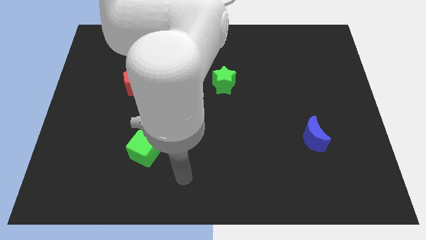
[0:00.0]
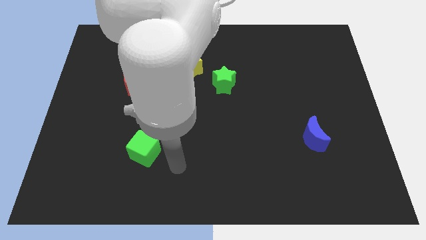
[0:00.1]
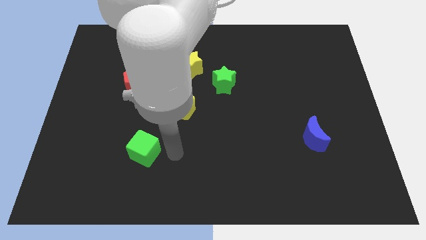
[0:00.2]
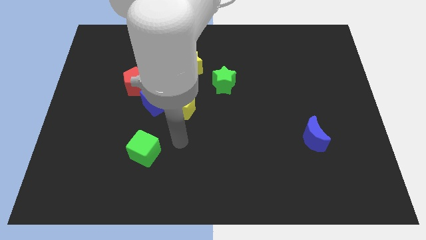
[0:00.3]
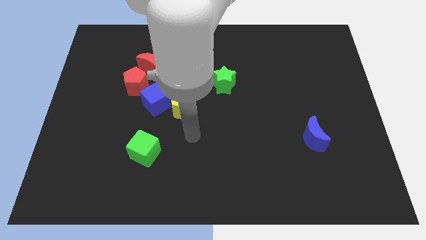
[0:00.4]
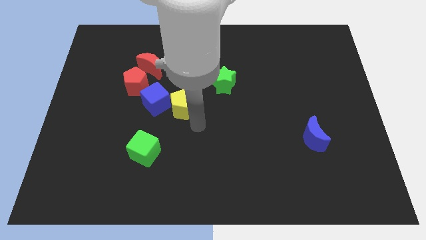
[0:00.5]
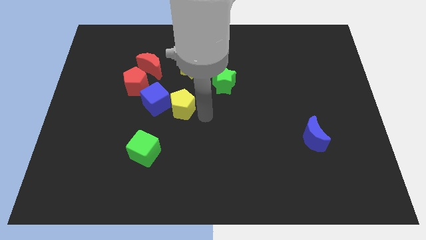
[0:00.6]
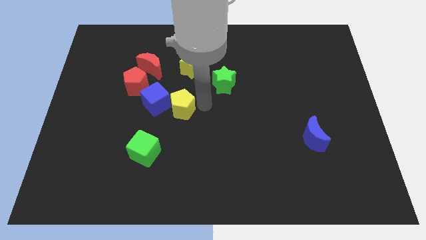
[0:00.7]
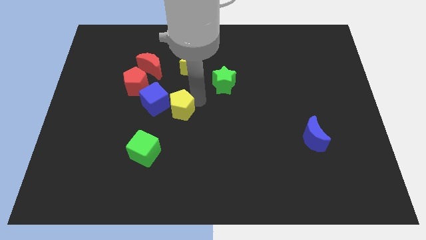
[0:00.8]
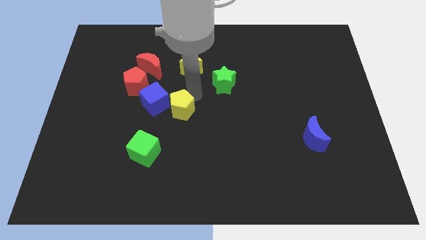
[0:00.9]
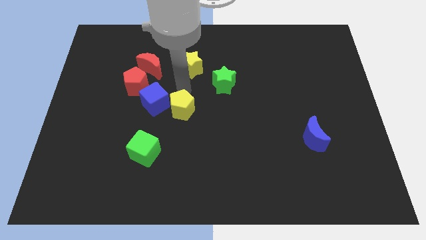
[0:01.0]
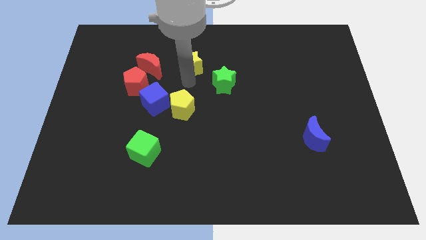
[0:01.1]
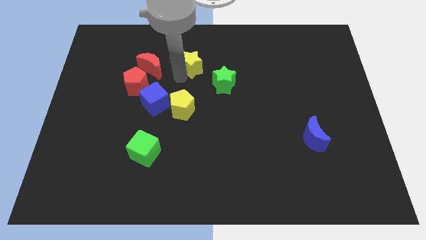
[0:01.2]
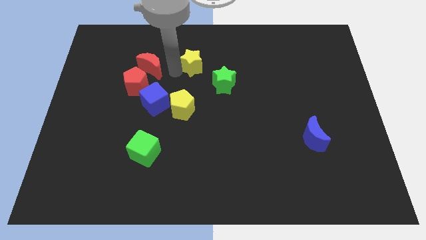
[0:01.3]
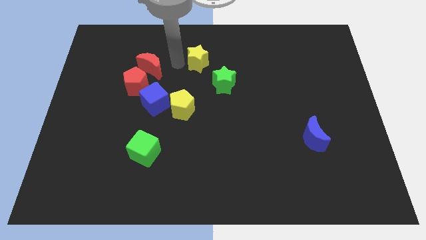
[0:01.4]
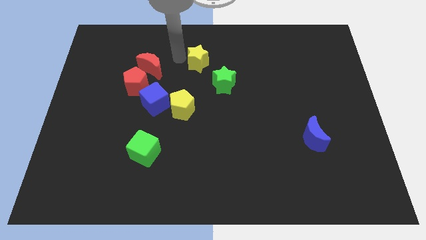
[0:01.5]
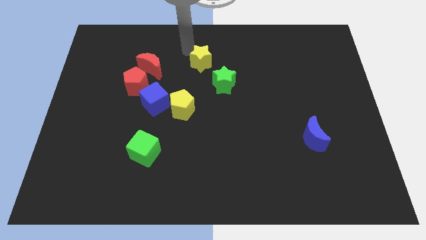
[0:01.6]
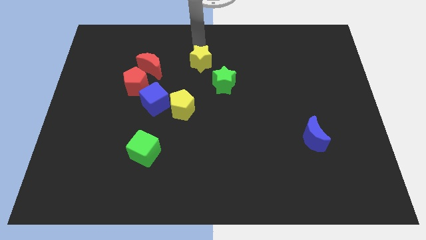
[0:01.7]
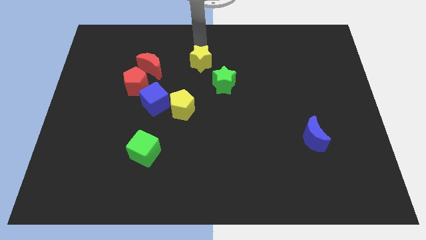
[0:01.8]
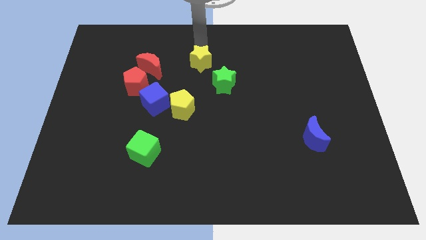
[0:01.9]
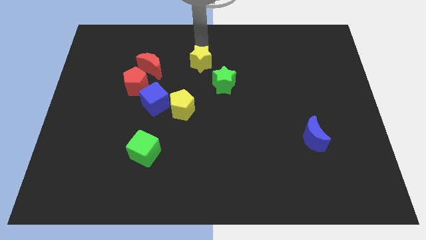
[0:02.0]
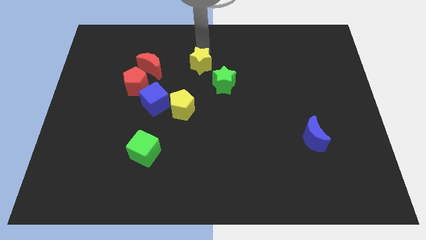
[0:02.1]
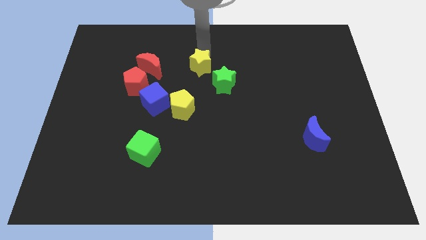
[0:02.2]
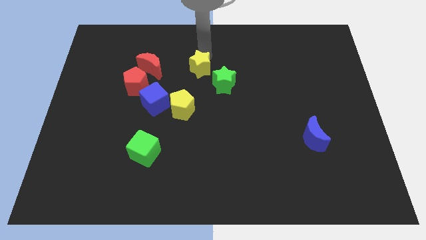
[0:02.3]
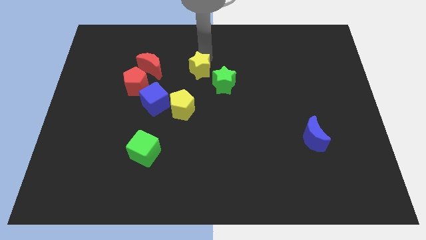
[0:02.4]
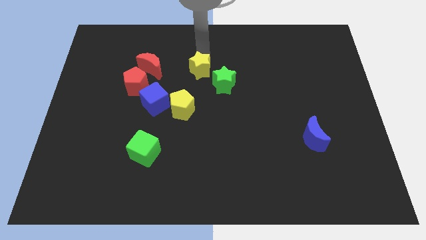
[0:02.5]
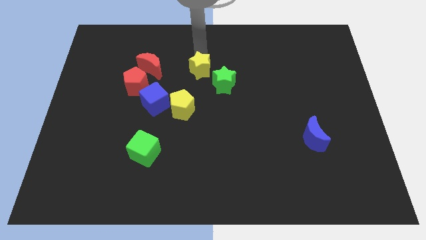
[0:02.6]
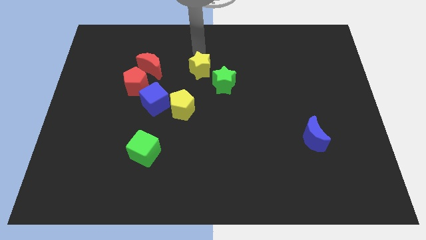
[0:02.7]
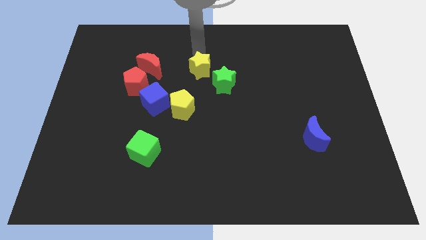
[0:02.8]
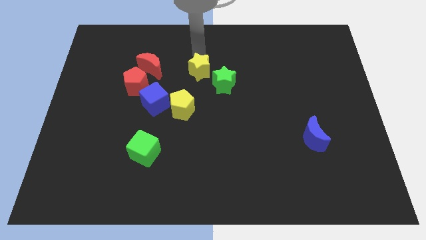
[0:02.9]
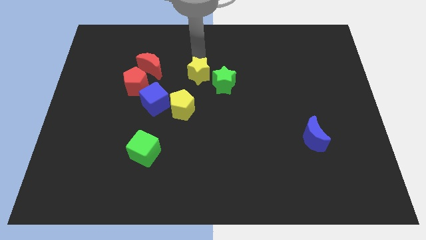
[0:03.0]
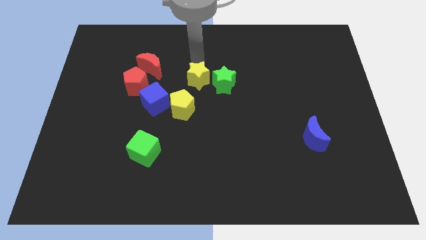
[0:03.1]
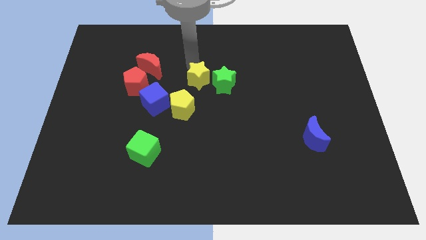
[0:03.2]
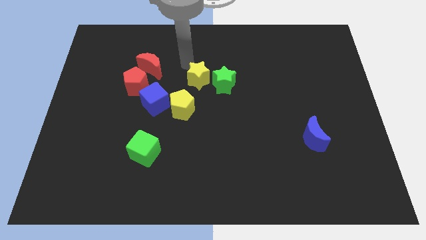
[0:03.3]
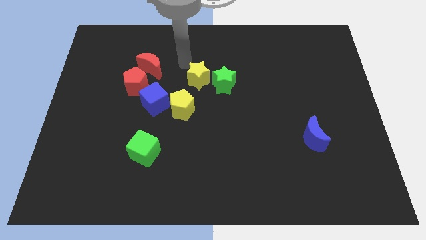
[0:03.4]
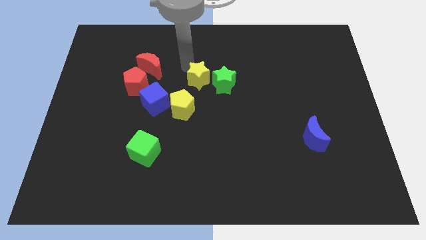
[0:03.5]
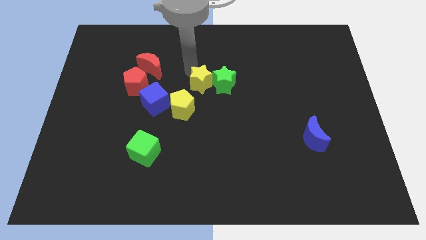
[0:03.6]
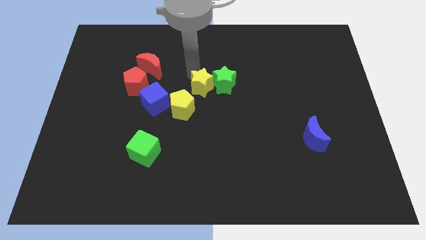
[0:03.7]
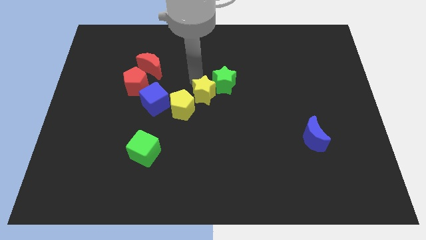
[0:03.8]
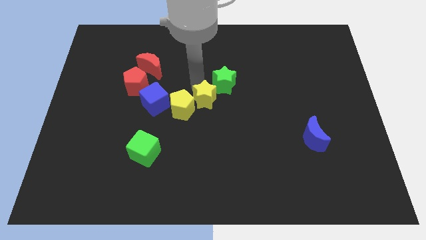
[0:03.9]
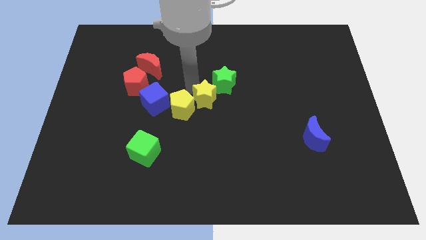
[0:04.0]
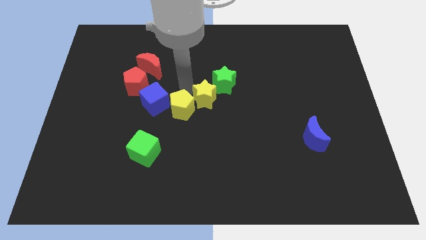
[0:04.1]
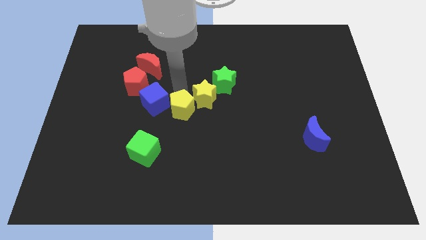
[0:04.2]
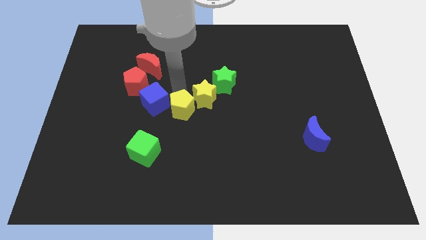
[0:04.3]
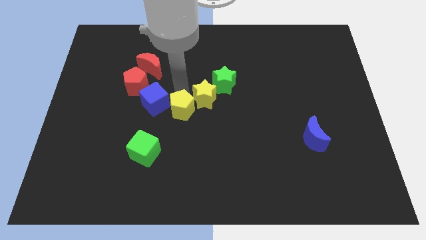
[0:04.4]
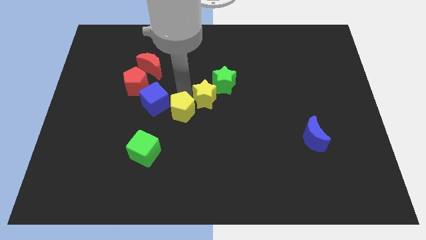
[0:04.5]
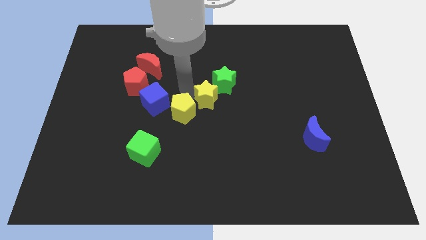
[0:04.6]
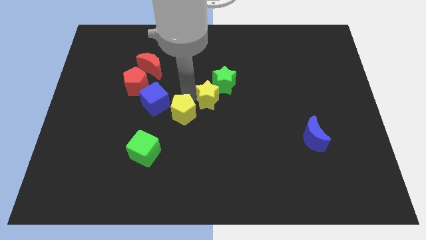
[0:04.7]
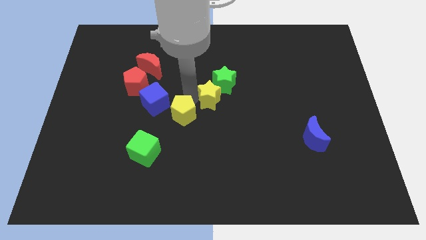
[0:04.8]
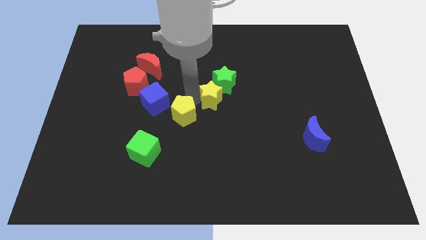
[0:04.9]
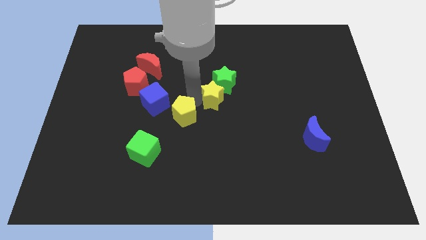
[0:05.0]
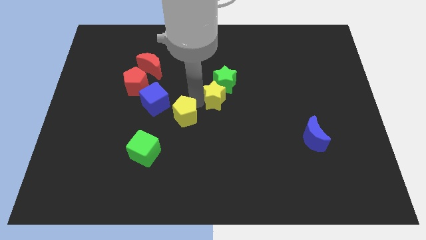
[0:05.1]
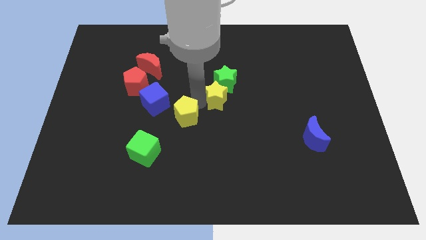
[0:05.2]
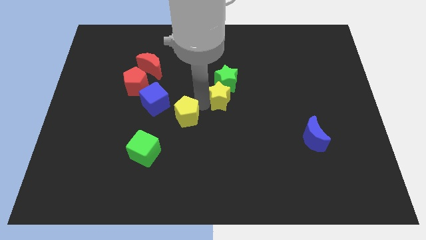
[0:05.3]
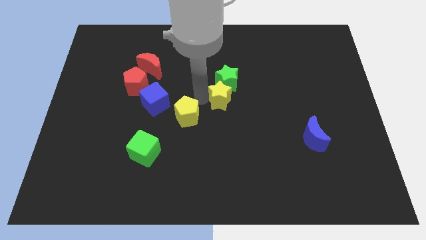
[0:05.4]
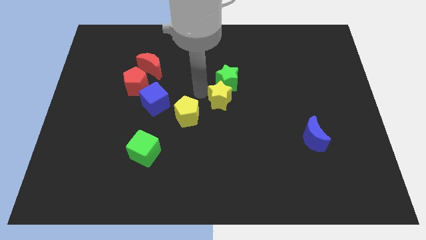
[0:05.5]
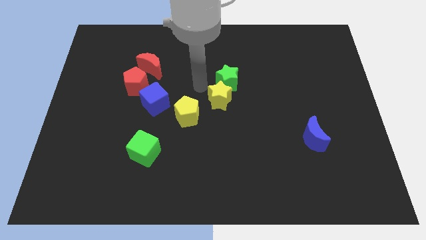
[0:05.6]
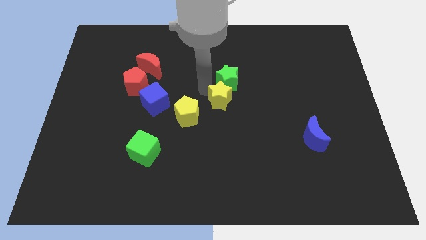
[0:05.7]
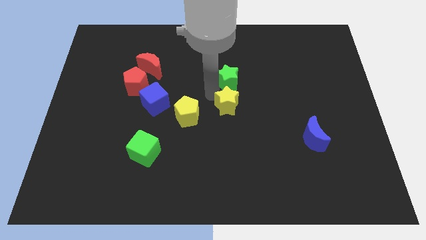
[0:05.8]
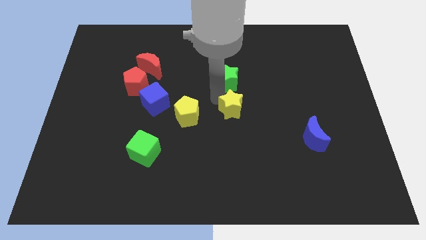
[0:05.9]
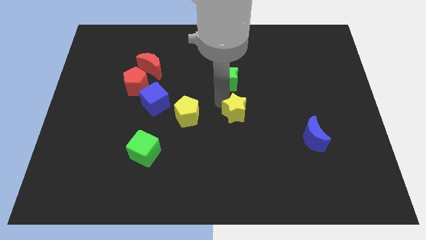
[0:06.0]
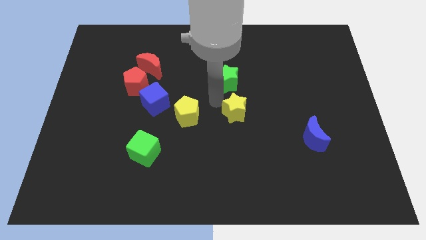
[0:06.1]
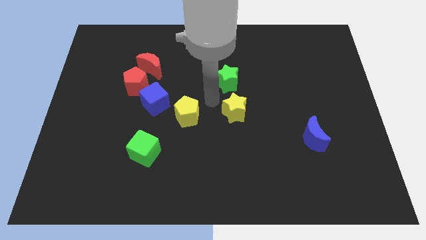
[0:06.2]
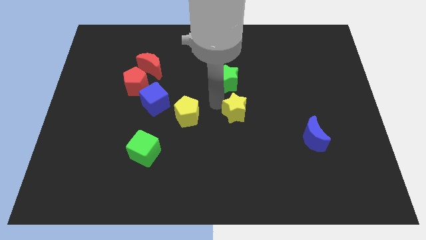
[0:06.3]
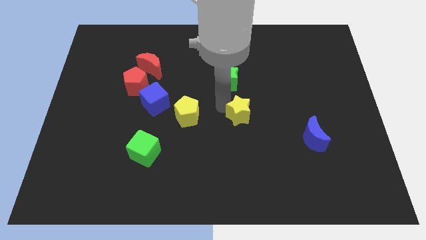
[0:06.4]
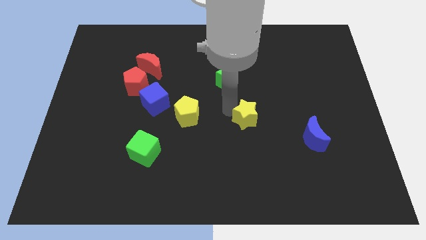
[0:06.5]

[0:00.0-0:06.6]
move the yellow star downwards and right diagonally

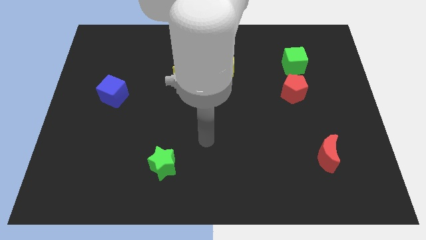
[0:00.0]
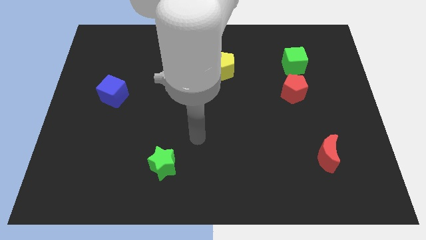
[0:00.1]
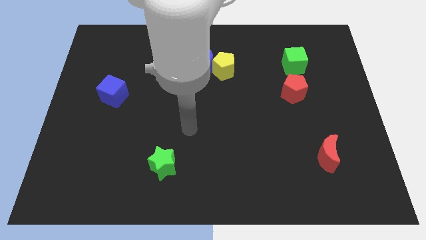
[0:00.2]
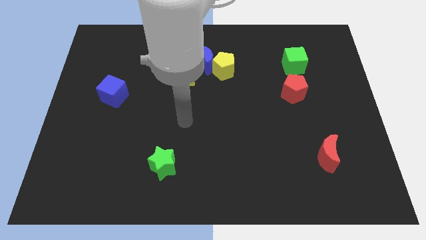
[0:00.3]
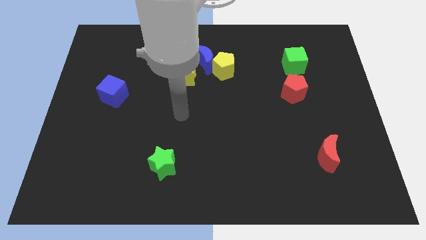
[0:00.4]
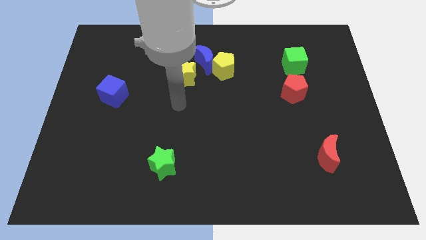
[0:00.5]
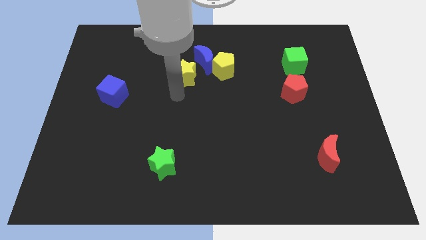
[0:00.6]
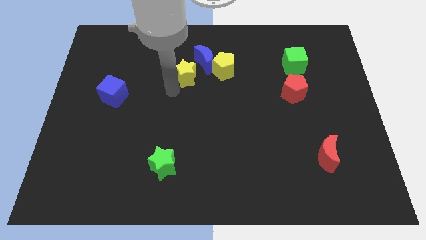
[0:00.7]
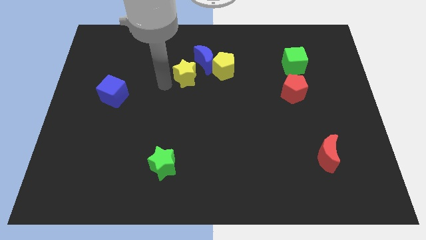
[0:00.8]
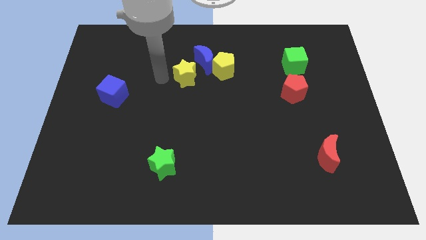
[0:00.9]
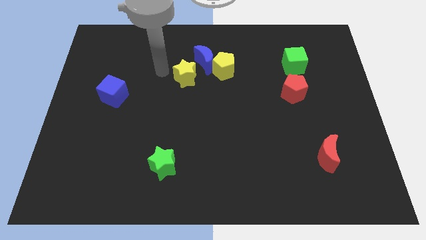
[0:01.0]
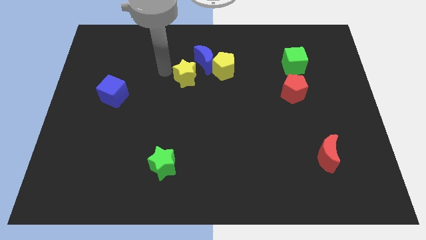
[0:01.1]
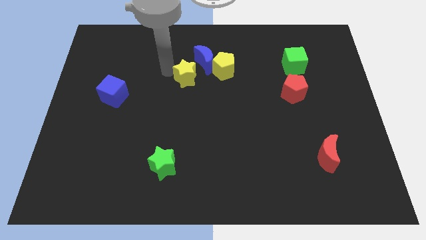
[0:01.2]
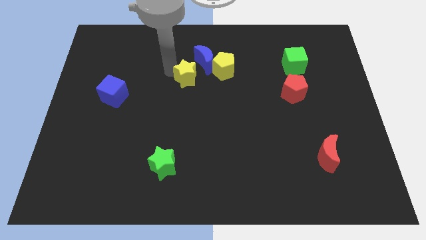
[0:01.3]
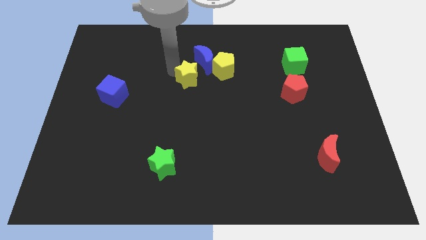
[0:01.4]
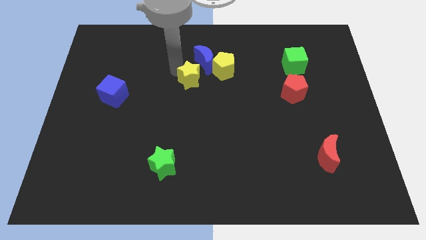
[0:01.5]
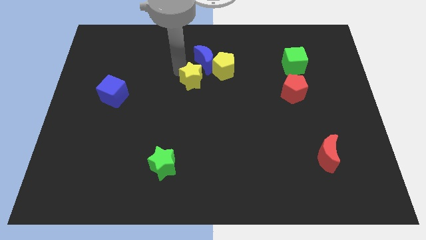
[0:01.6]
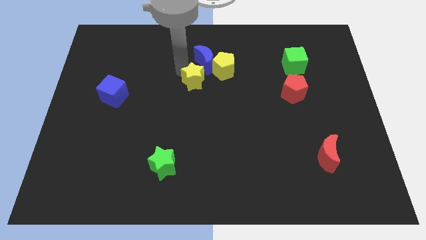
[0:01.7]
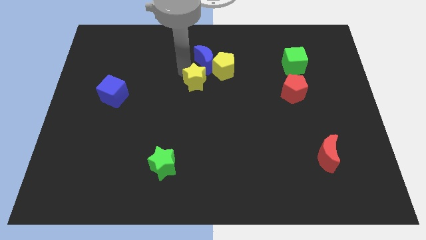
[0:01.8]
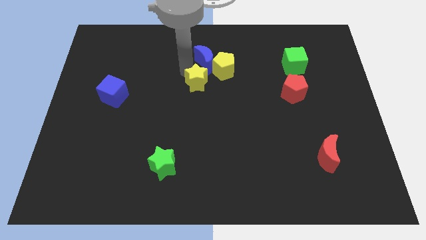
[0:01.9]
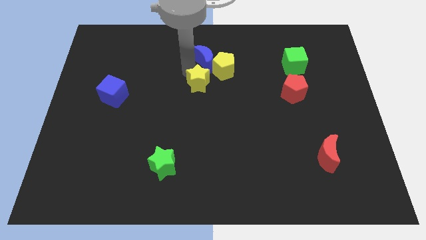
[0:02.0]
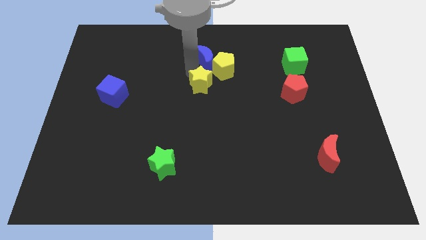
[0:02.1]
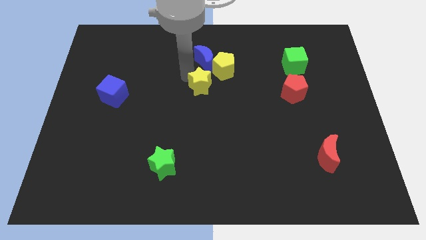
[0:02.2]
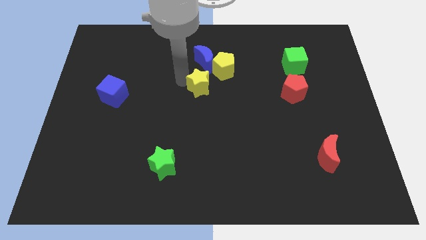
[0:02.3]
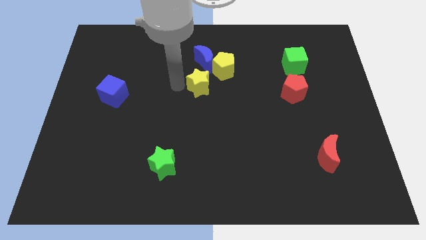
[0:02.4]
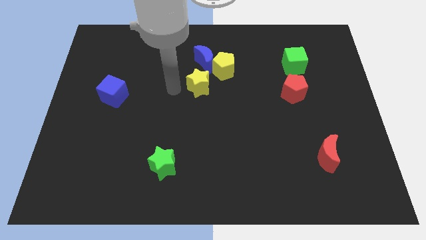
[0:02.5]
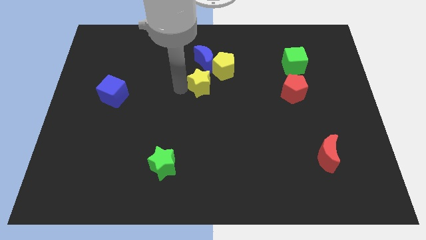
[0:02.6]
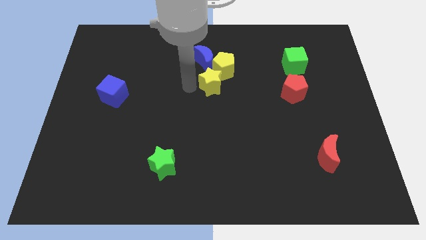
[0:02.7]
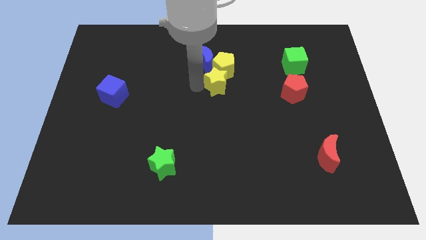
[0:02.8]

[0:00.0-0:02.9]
slide the yellow star right a little bit
